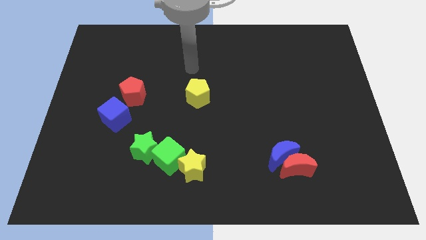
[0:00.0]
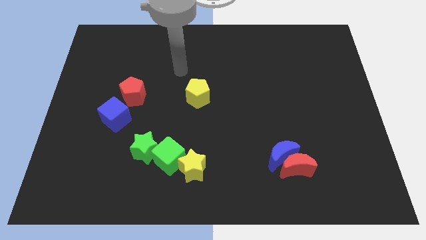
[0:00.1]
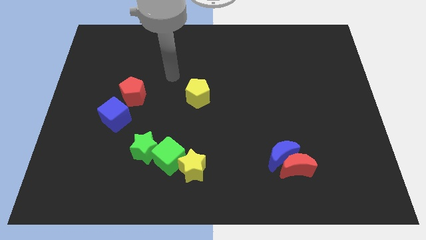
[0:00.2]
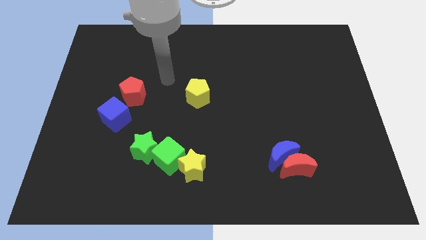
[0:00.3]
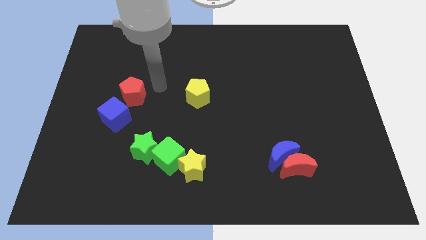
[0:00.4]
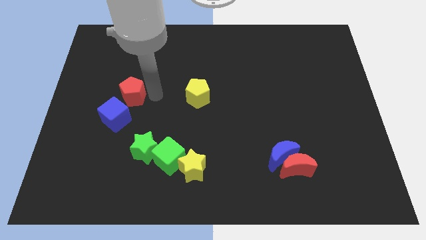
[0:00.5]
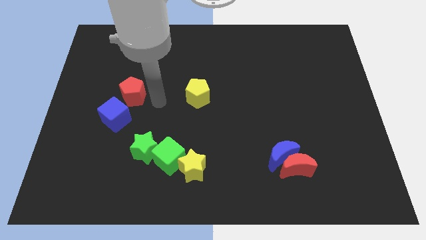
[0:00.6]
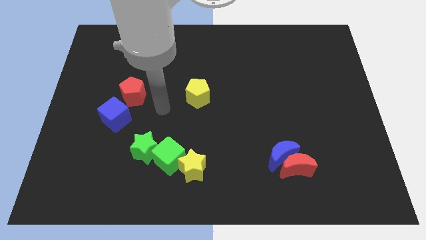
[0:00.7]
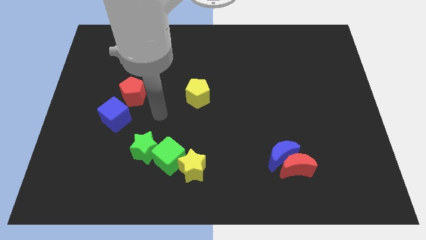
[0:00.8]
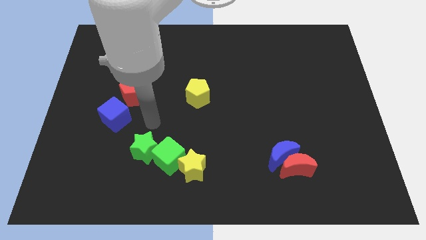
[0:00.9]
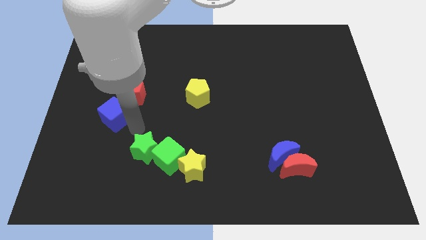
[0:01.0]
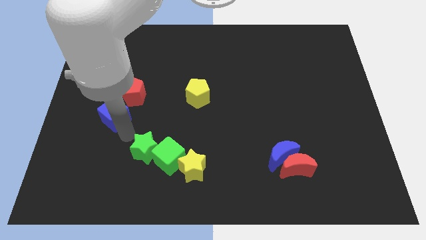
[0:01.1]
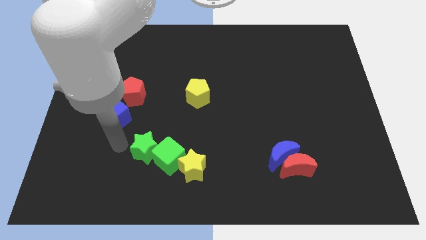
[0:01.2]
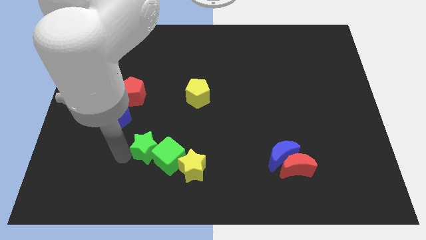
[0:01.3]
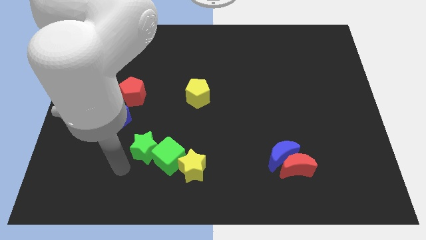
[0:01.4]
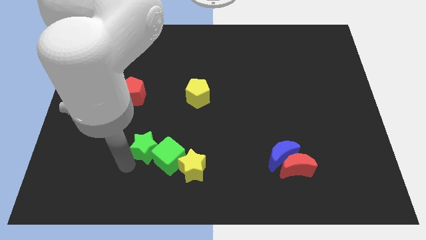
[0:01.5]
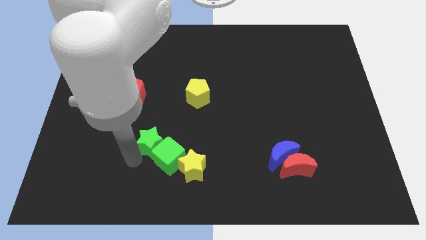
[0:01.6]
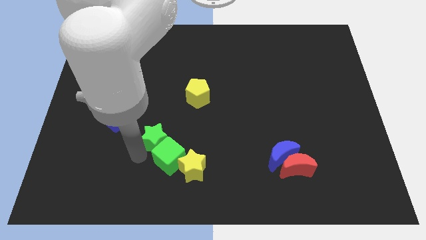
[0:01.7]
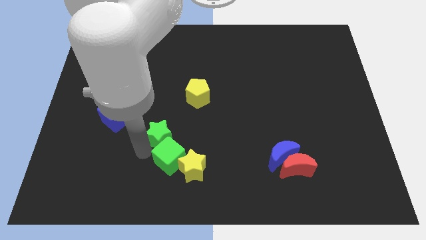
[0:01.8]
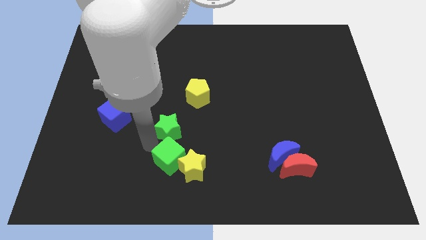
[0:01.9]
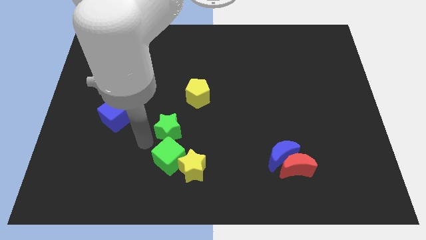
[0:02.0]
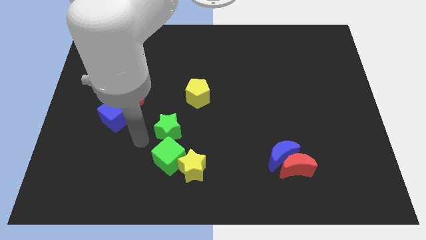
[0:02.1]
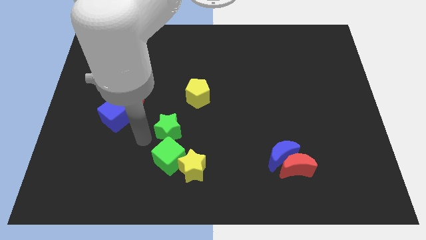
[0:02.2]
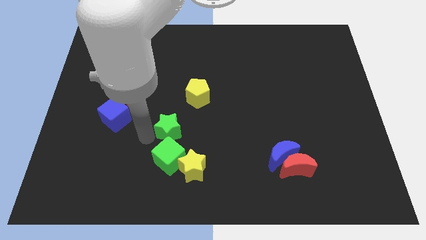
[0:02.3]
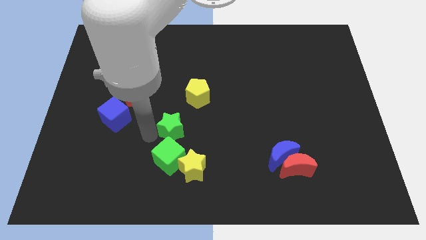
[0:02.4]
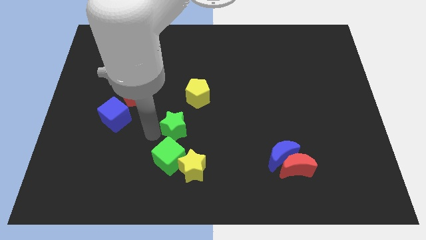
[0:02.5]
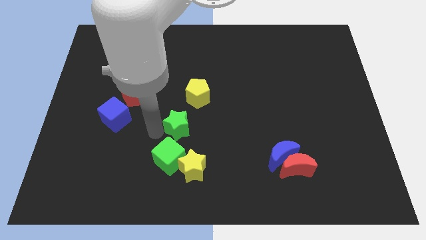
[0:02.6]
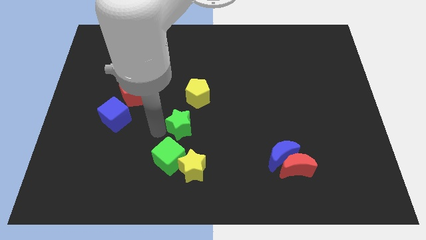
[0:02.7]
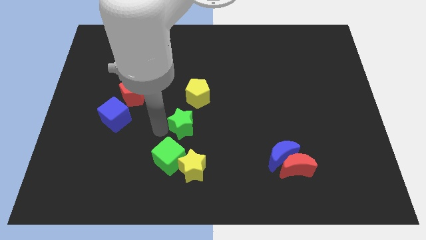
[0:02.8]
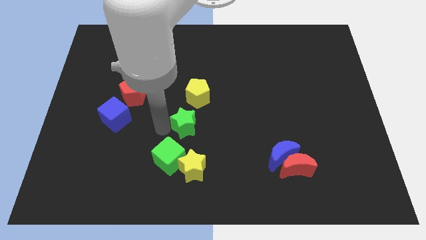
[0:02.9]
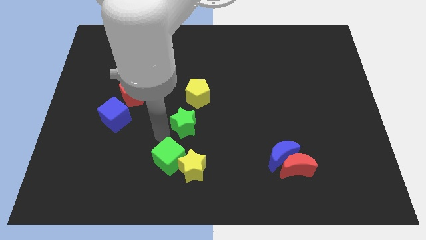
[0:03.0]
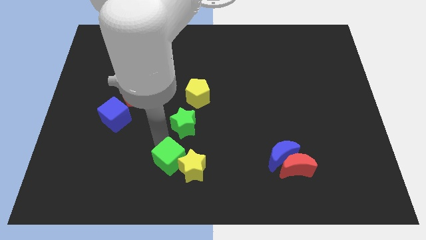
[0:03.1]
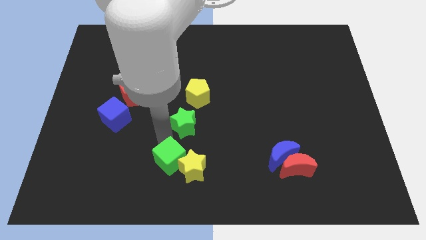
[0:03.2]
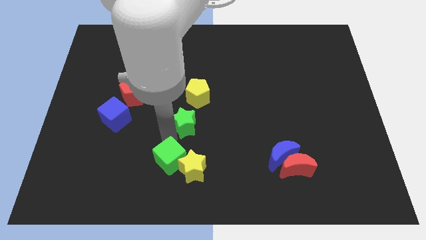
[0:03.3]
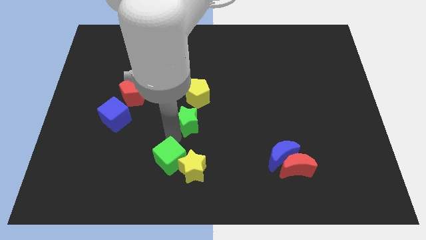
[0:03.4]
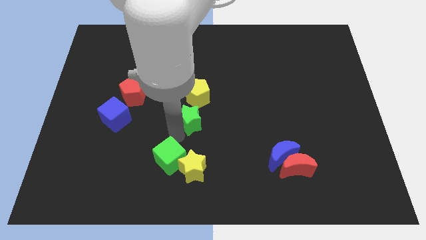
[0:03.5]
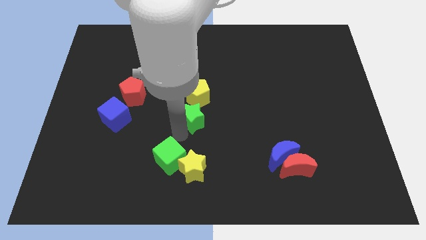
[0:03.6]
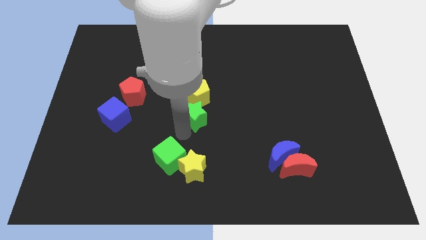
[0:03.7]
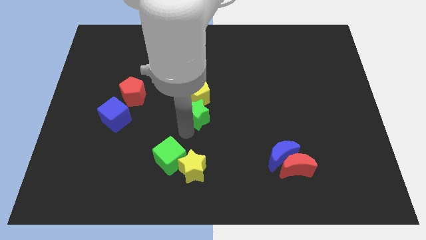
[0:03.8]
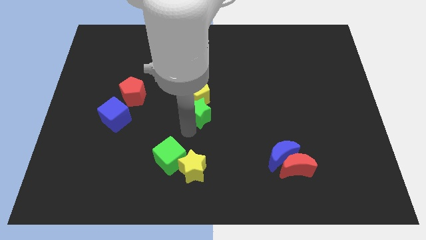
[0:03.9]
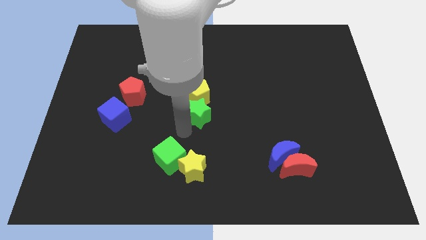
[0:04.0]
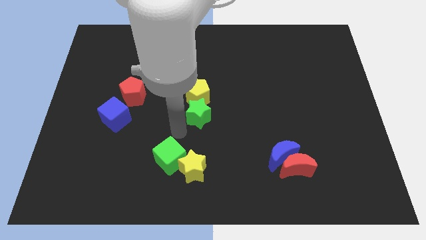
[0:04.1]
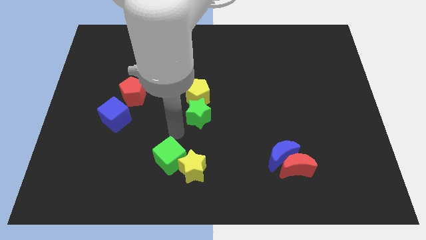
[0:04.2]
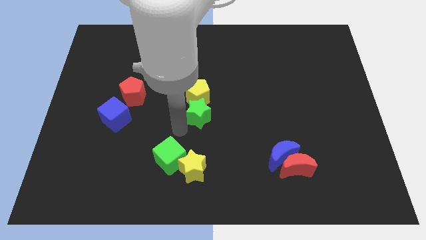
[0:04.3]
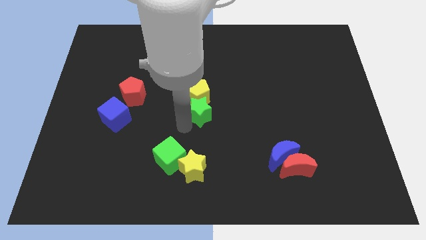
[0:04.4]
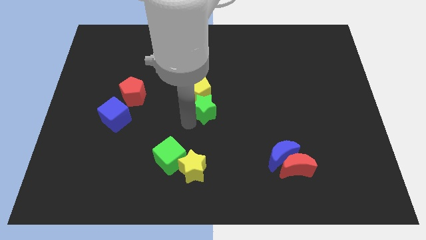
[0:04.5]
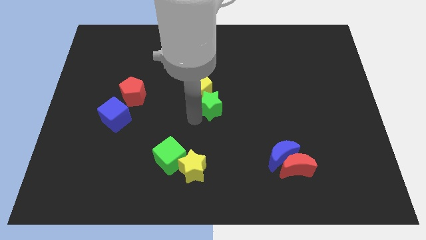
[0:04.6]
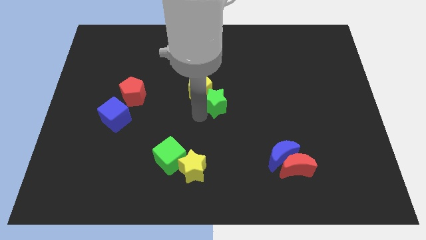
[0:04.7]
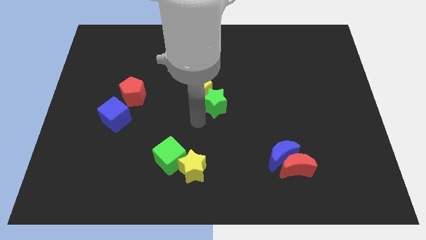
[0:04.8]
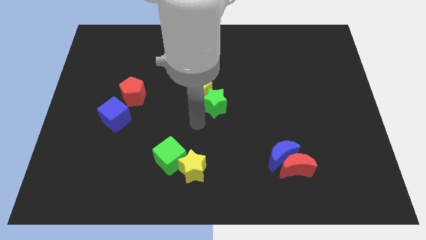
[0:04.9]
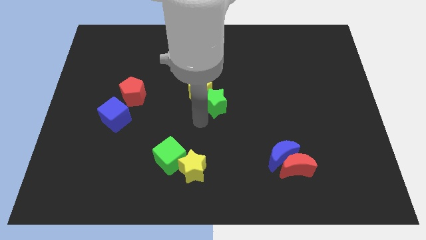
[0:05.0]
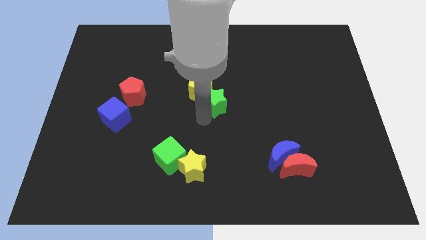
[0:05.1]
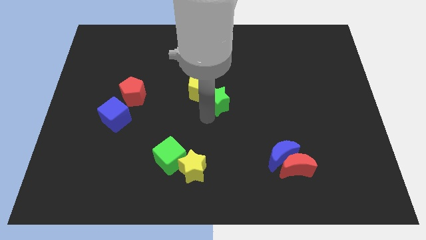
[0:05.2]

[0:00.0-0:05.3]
slide the green star upwards and right

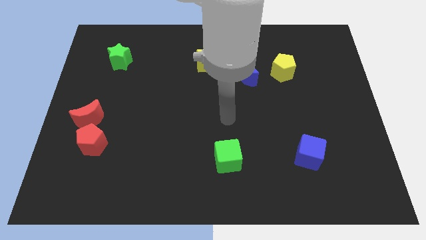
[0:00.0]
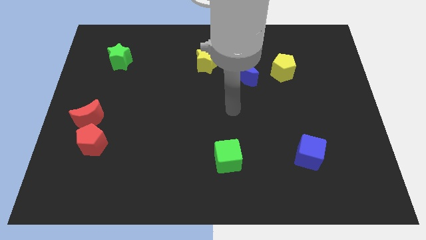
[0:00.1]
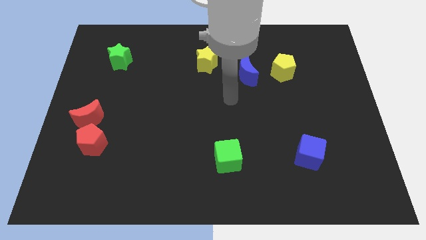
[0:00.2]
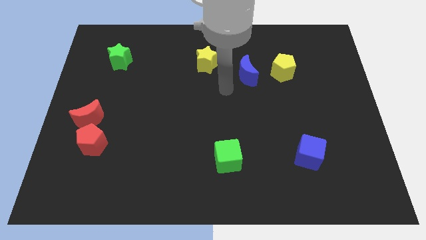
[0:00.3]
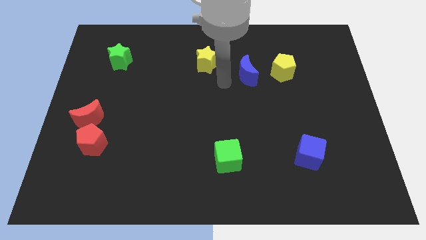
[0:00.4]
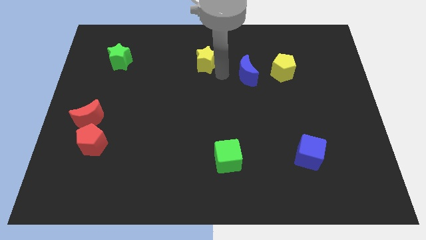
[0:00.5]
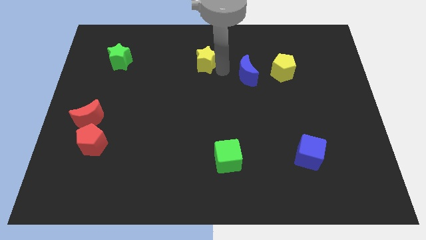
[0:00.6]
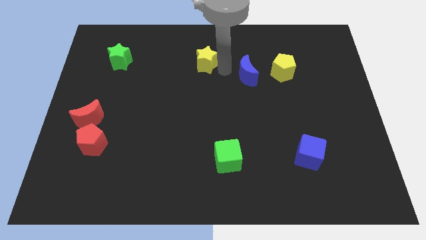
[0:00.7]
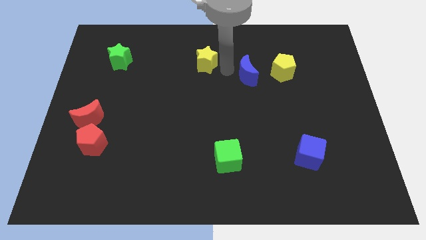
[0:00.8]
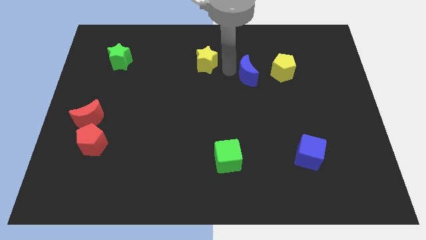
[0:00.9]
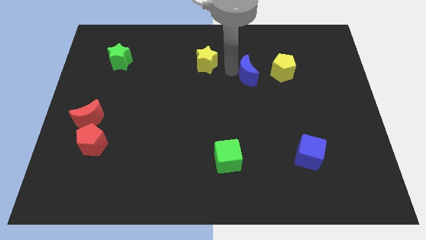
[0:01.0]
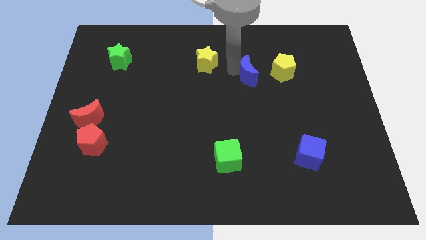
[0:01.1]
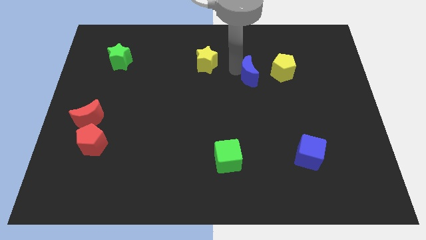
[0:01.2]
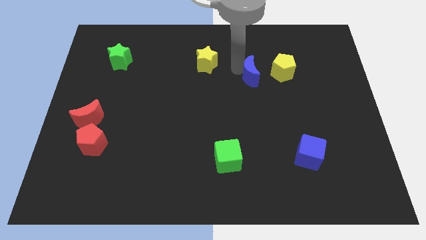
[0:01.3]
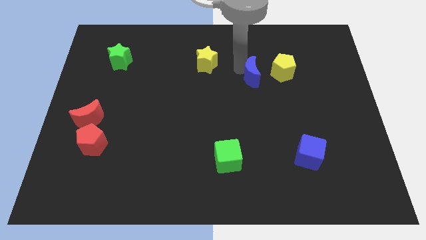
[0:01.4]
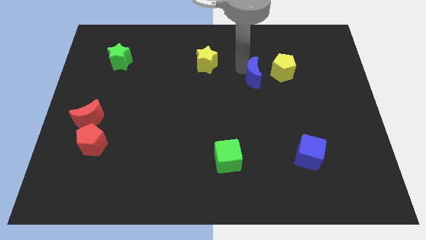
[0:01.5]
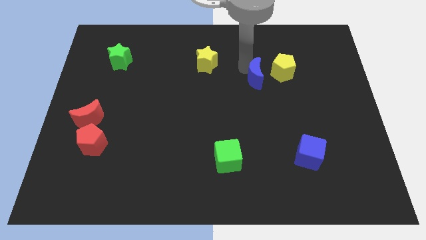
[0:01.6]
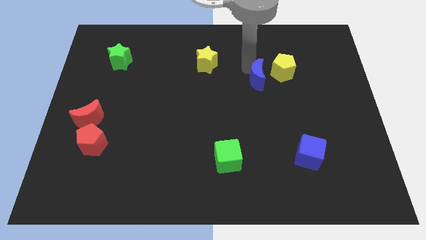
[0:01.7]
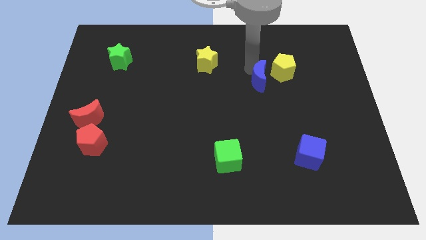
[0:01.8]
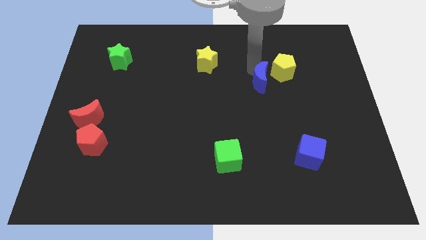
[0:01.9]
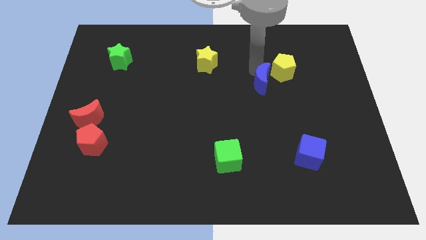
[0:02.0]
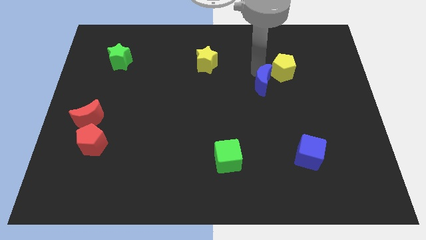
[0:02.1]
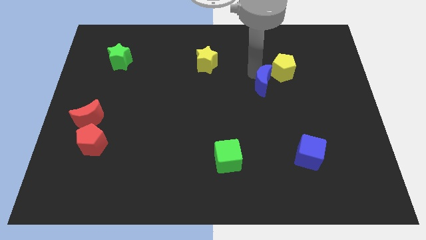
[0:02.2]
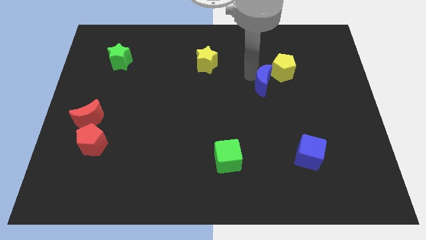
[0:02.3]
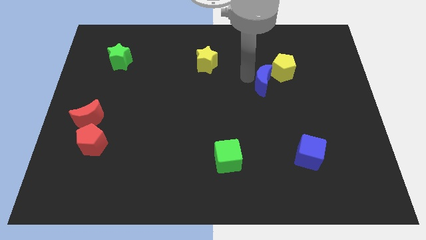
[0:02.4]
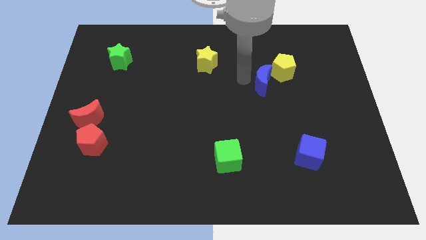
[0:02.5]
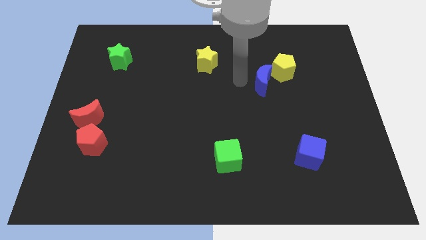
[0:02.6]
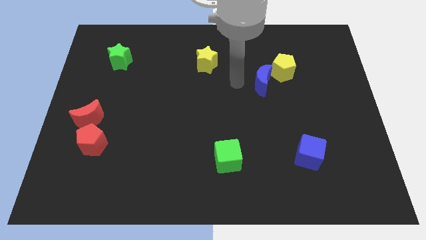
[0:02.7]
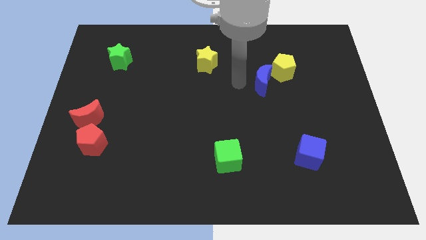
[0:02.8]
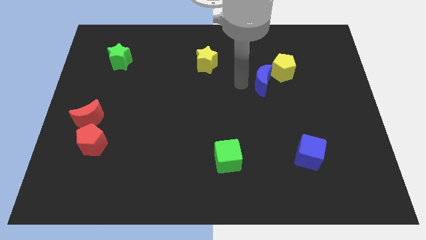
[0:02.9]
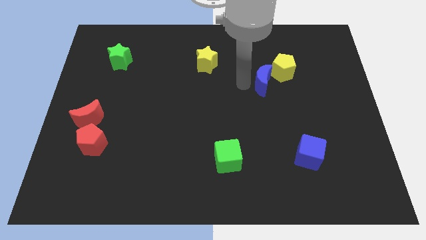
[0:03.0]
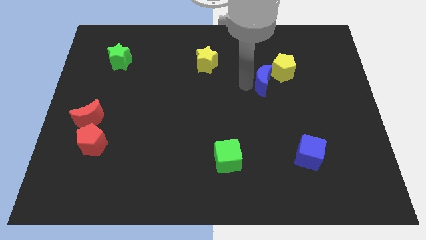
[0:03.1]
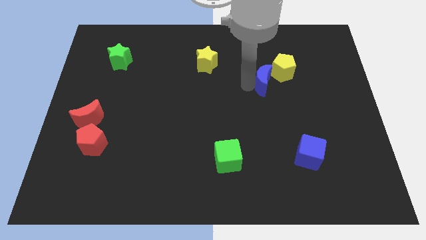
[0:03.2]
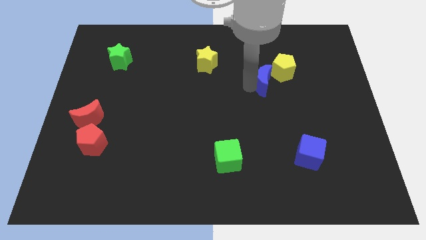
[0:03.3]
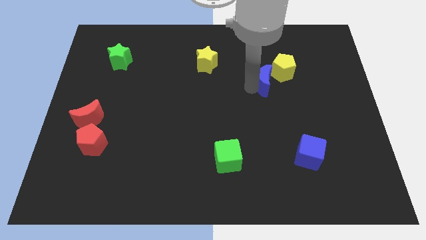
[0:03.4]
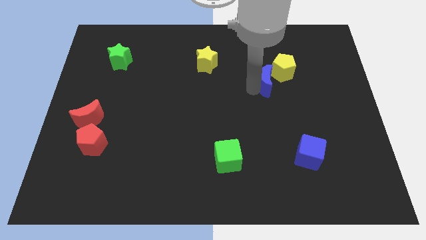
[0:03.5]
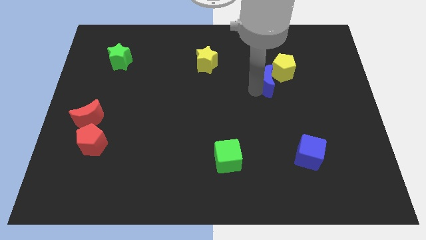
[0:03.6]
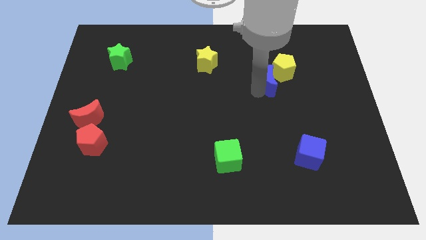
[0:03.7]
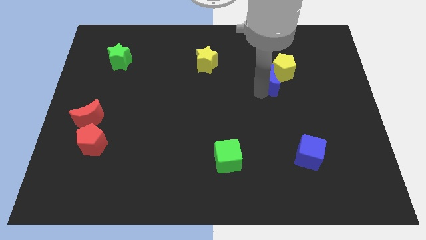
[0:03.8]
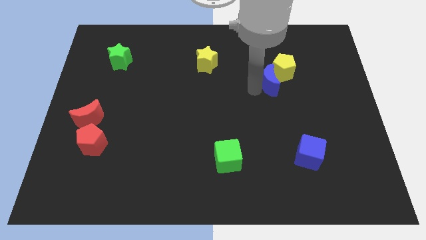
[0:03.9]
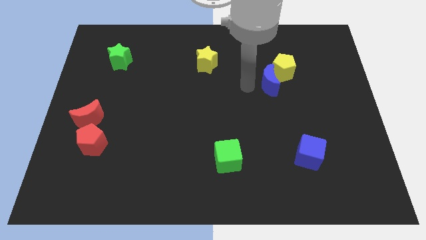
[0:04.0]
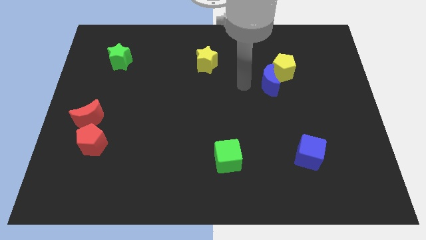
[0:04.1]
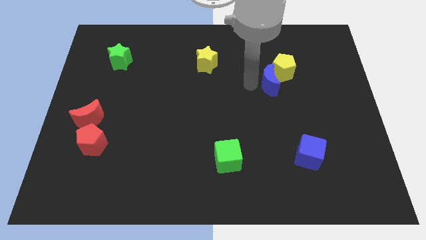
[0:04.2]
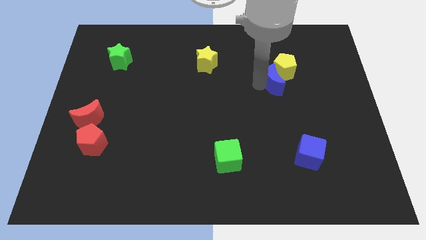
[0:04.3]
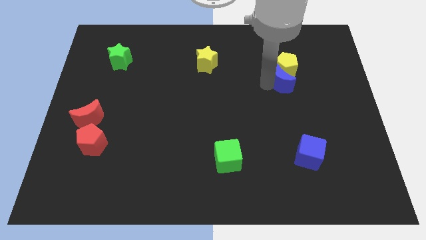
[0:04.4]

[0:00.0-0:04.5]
slide the blue moon to the right a little bit
